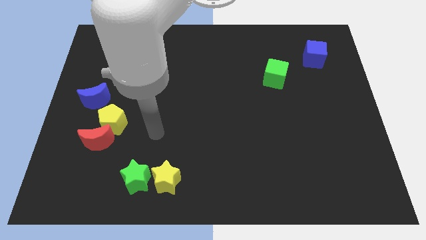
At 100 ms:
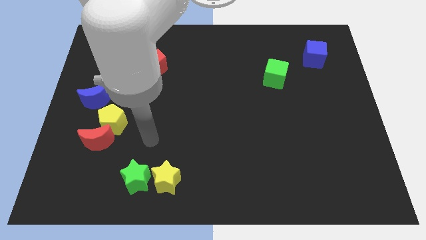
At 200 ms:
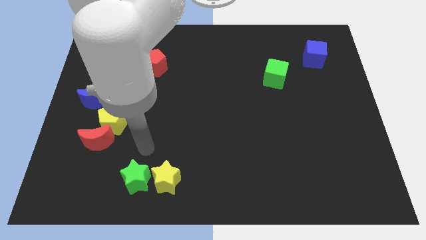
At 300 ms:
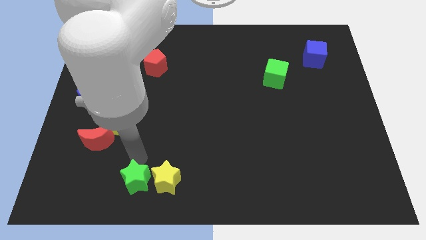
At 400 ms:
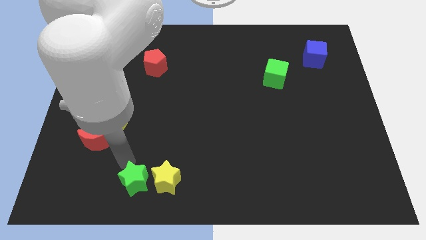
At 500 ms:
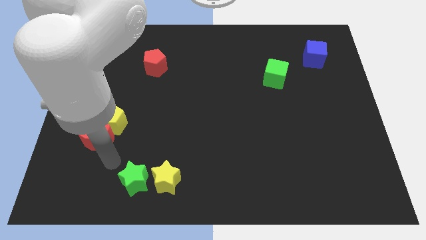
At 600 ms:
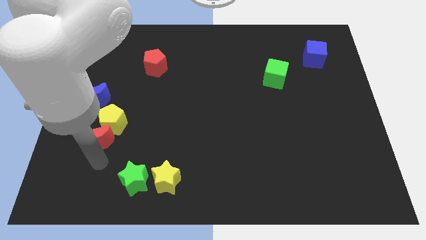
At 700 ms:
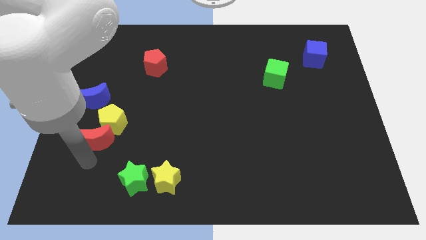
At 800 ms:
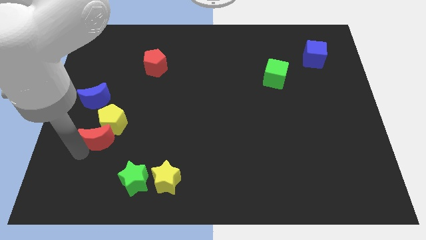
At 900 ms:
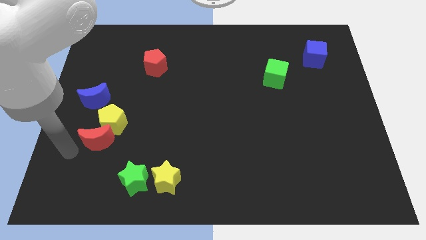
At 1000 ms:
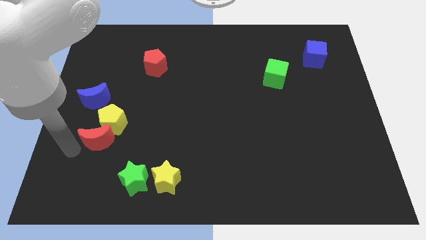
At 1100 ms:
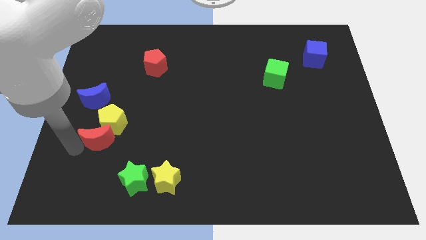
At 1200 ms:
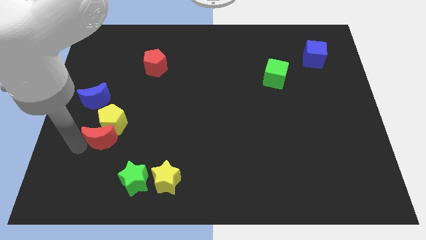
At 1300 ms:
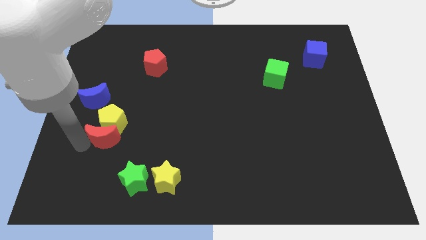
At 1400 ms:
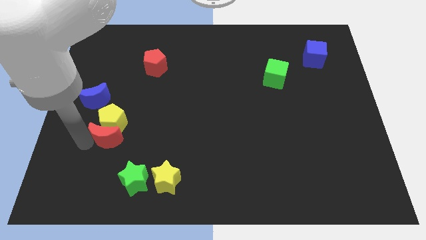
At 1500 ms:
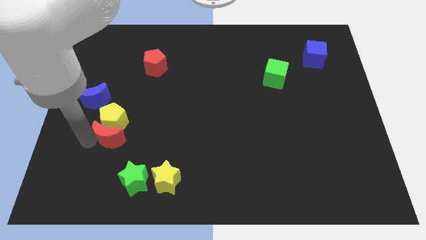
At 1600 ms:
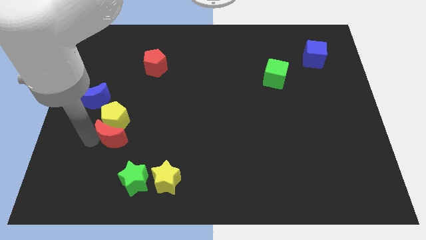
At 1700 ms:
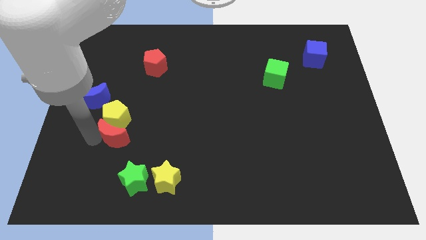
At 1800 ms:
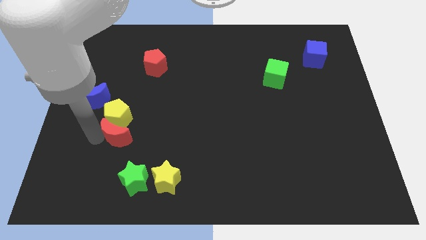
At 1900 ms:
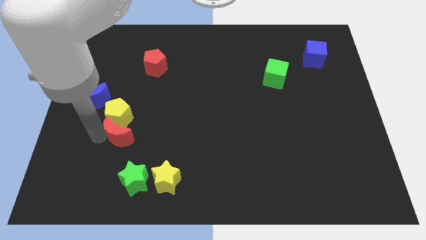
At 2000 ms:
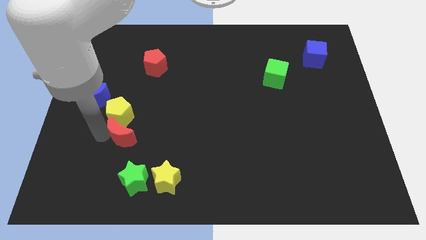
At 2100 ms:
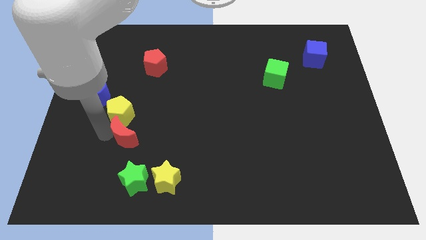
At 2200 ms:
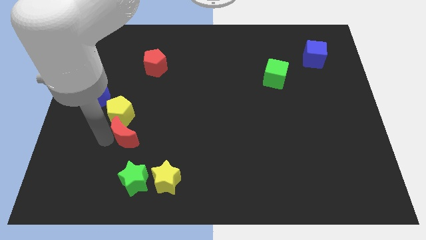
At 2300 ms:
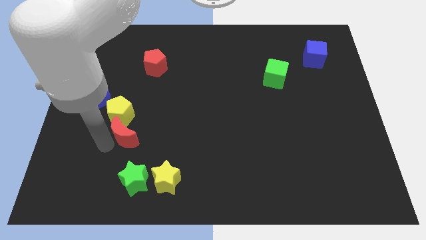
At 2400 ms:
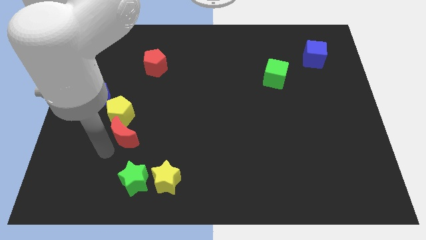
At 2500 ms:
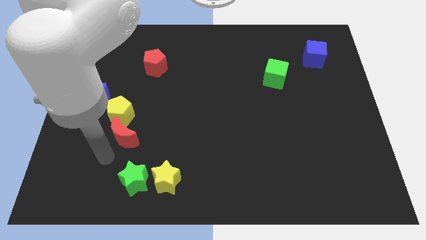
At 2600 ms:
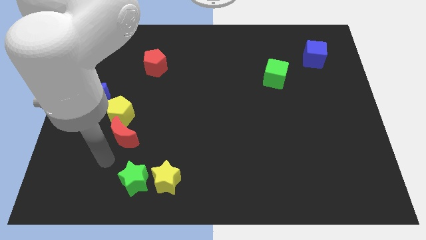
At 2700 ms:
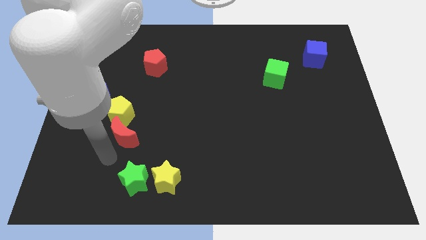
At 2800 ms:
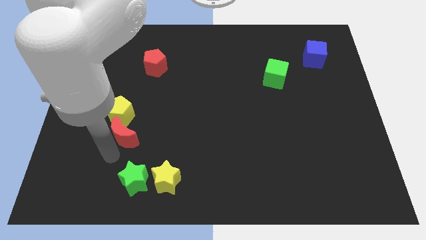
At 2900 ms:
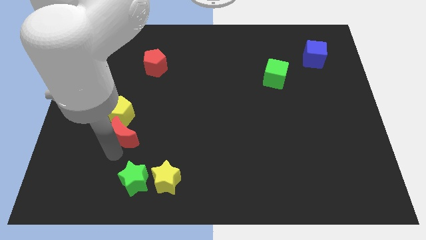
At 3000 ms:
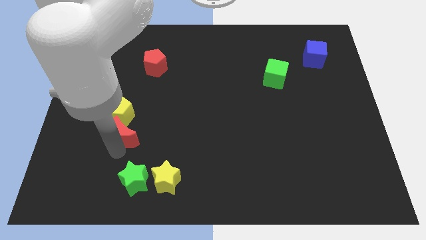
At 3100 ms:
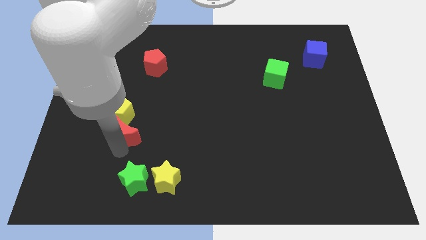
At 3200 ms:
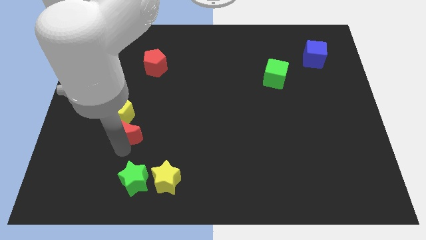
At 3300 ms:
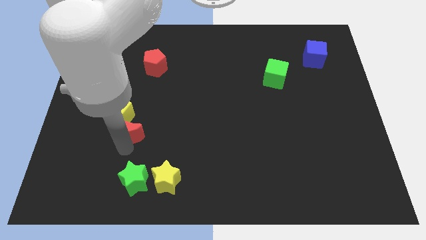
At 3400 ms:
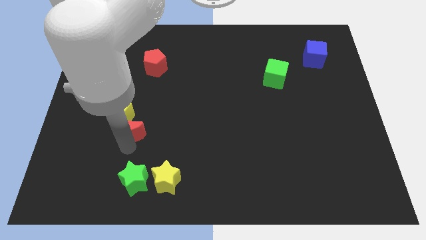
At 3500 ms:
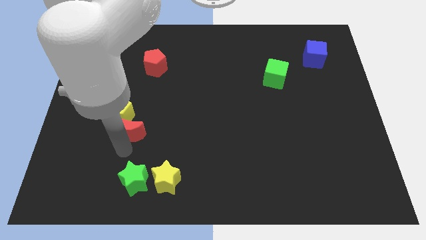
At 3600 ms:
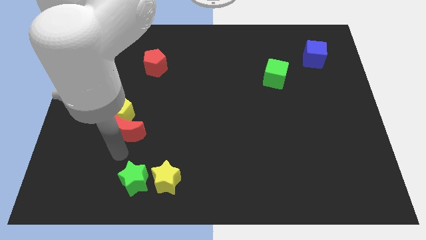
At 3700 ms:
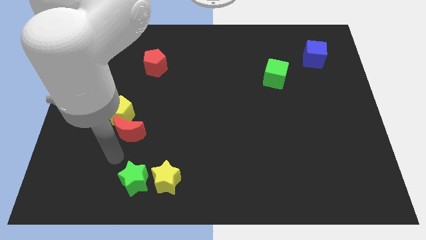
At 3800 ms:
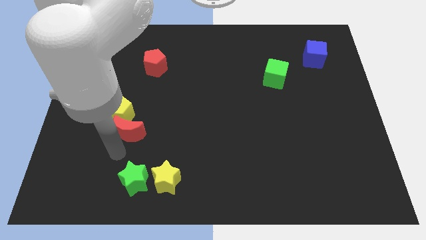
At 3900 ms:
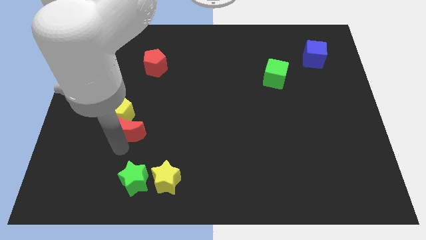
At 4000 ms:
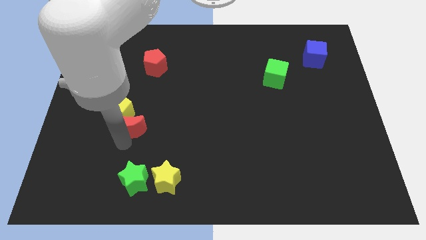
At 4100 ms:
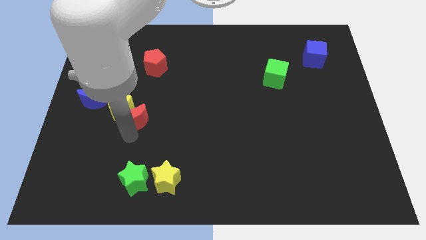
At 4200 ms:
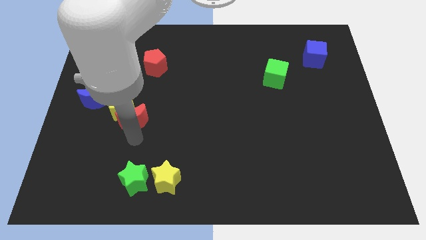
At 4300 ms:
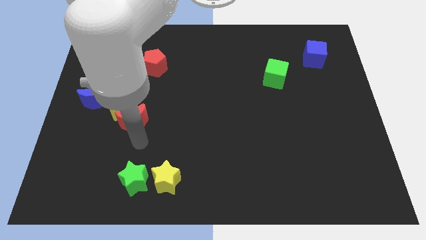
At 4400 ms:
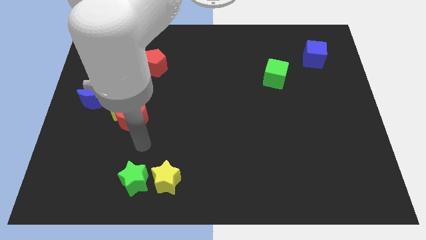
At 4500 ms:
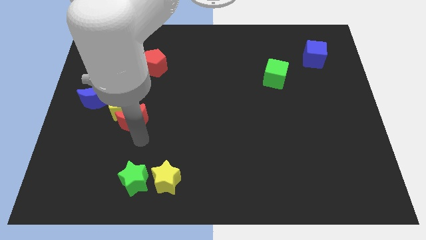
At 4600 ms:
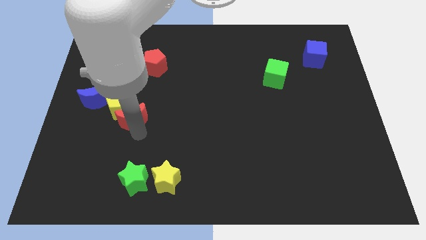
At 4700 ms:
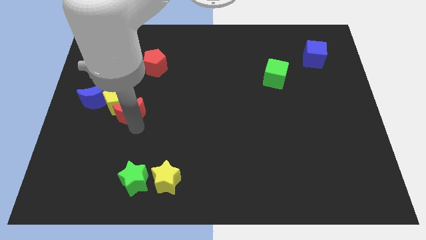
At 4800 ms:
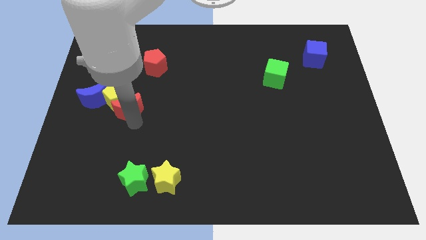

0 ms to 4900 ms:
push the red moon slightly up

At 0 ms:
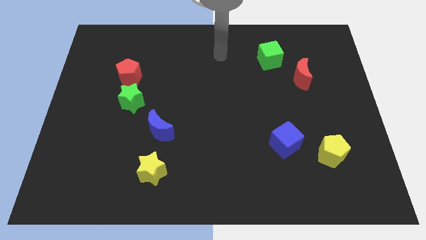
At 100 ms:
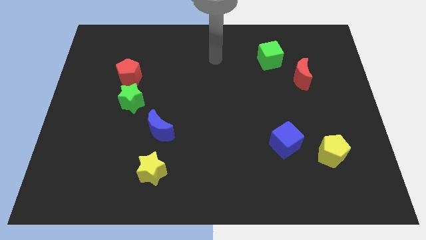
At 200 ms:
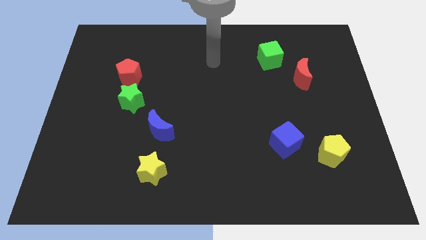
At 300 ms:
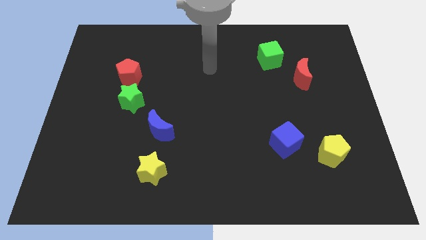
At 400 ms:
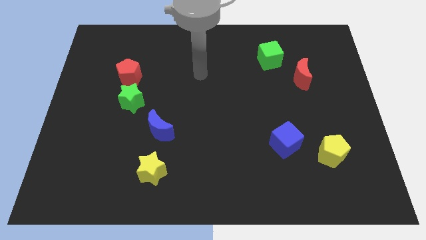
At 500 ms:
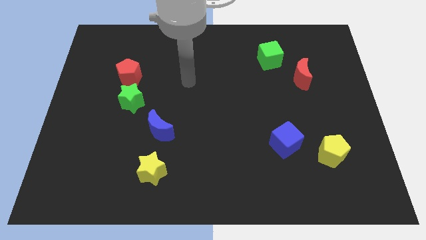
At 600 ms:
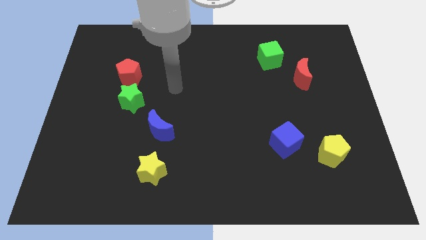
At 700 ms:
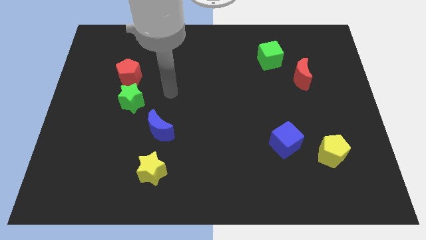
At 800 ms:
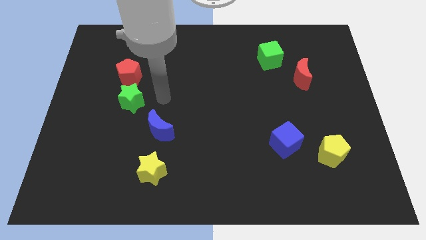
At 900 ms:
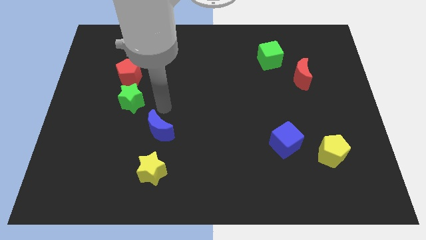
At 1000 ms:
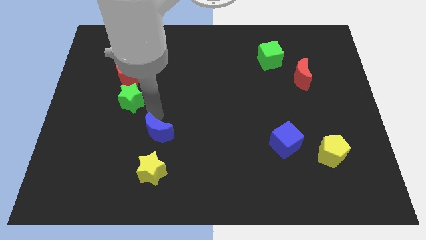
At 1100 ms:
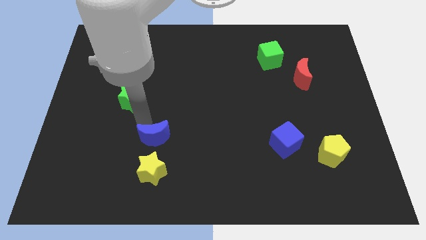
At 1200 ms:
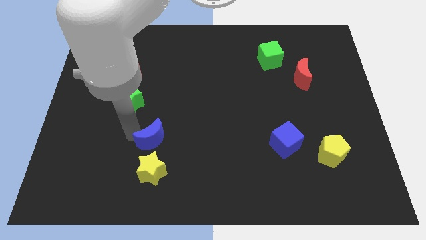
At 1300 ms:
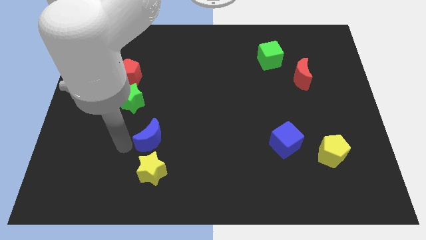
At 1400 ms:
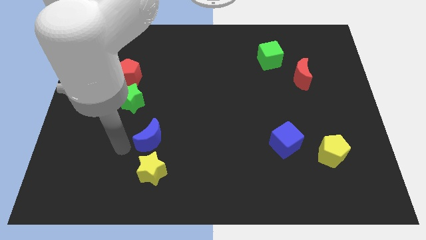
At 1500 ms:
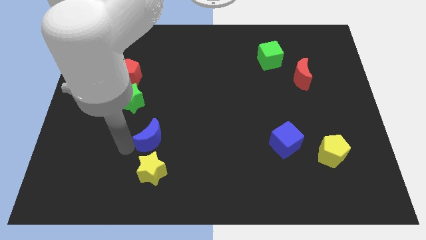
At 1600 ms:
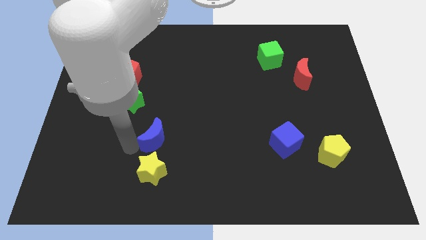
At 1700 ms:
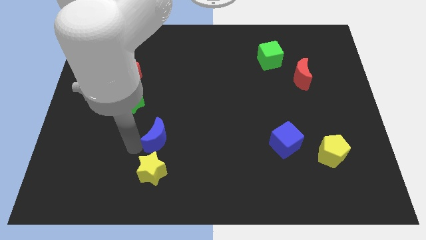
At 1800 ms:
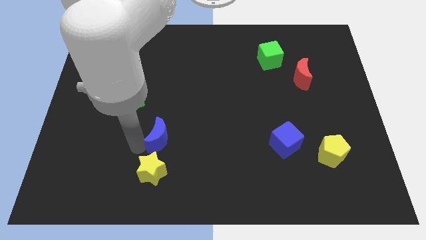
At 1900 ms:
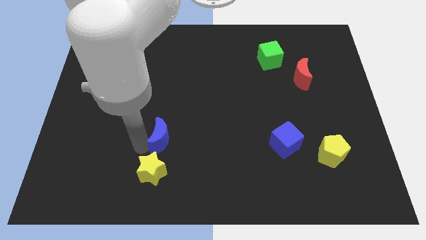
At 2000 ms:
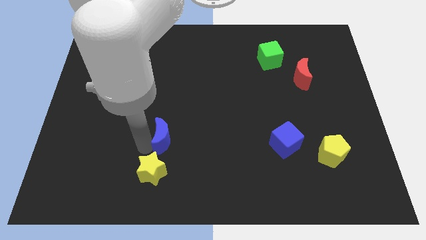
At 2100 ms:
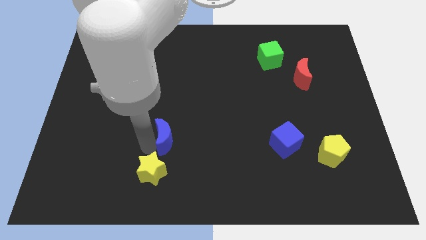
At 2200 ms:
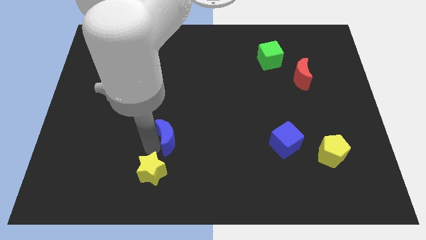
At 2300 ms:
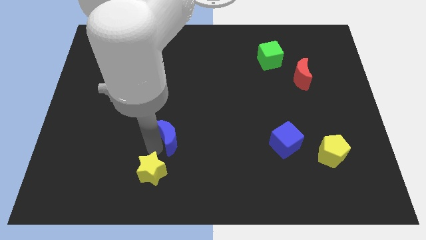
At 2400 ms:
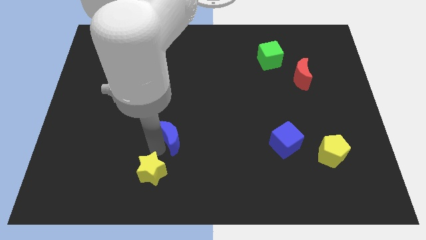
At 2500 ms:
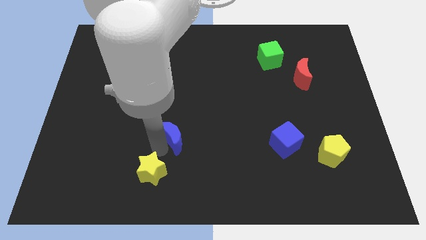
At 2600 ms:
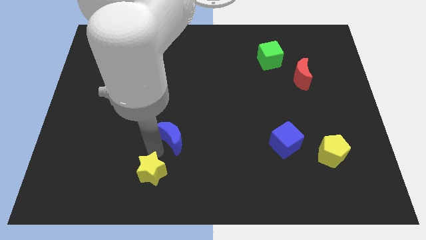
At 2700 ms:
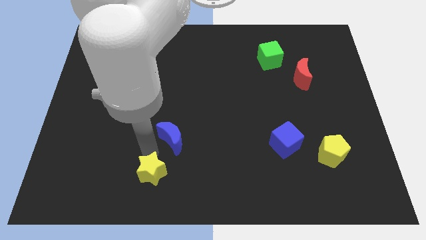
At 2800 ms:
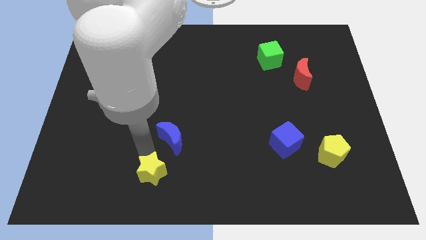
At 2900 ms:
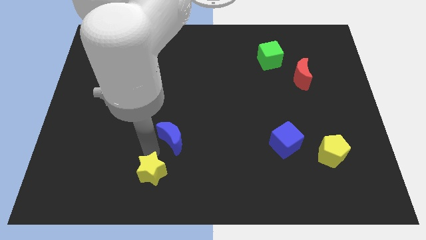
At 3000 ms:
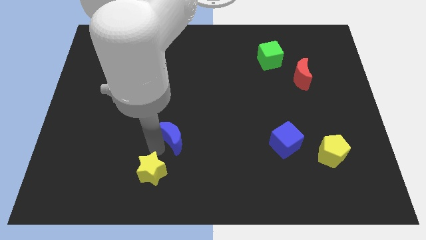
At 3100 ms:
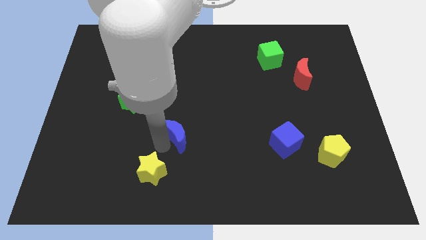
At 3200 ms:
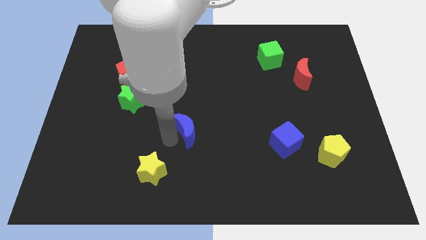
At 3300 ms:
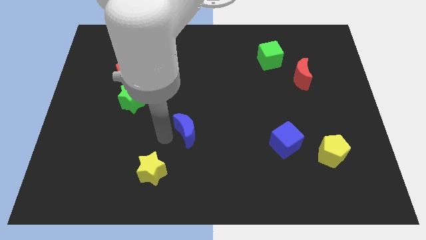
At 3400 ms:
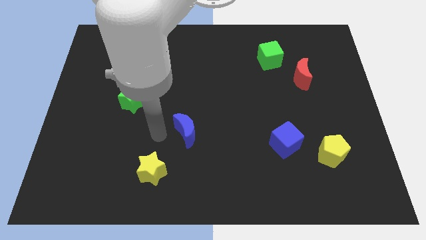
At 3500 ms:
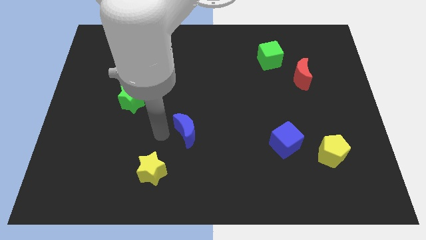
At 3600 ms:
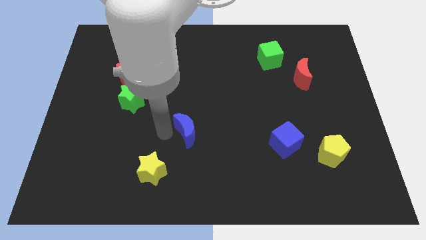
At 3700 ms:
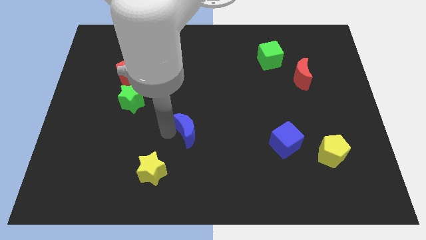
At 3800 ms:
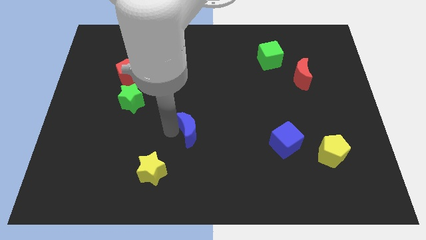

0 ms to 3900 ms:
slide the blue moon to the right somewhat
